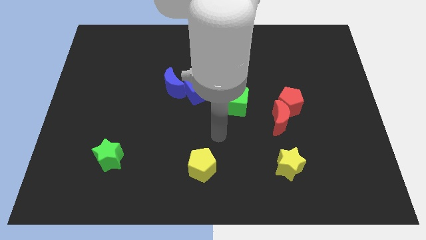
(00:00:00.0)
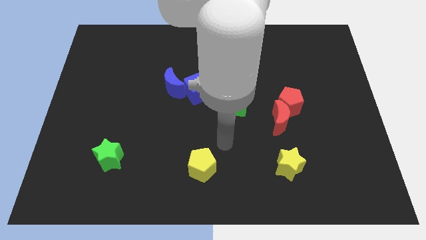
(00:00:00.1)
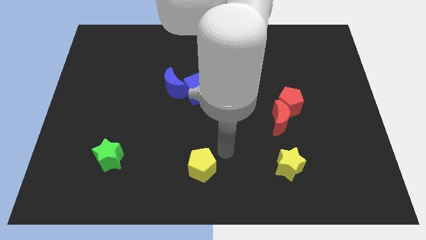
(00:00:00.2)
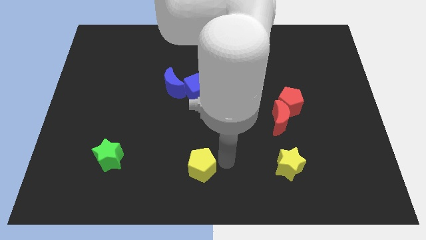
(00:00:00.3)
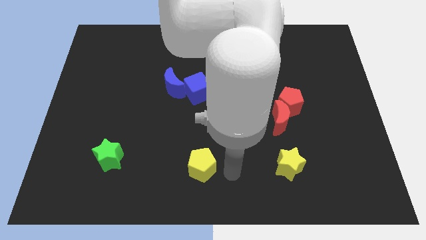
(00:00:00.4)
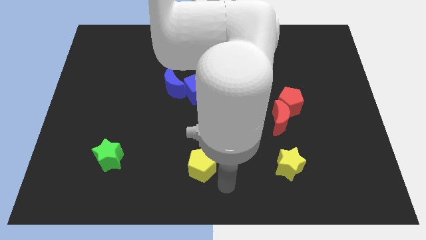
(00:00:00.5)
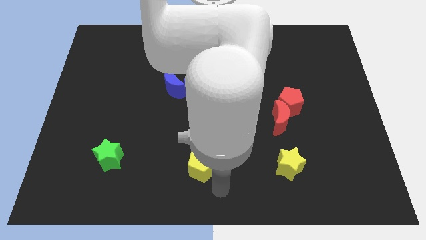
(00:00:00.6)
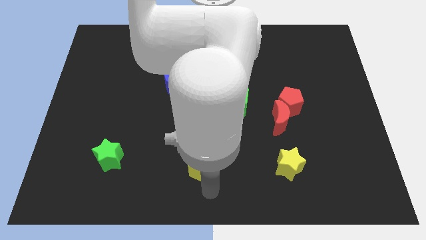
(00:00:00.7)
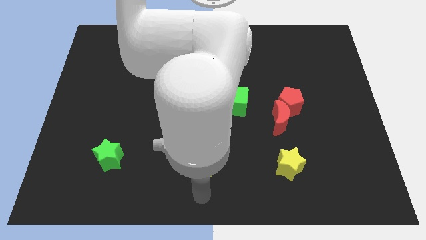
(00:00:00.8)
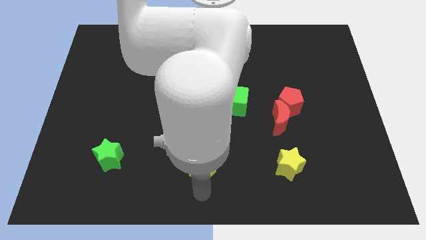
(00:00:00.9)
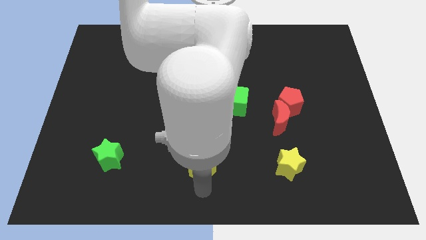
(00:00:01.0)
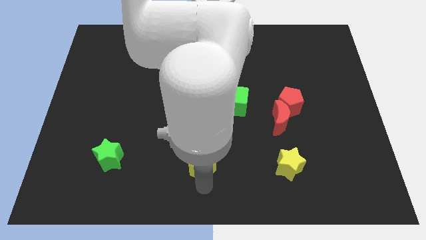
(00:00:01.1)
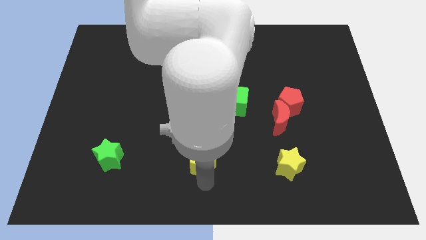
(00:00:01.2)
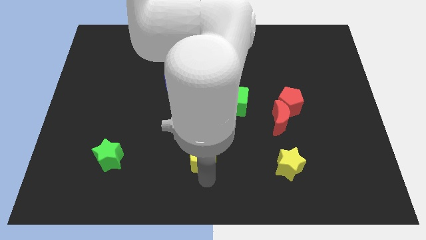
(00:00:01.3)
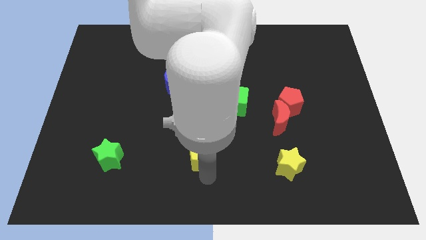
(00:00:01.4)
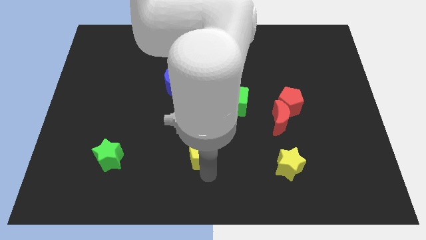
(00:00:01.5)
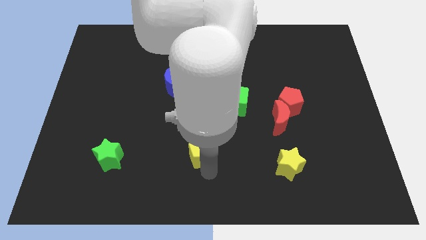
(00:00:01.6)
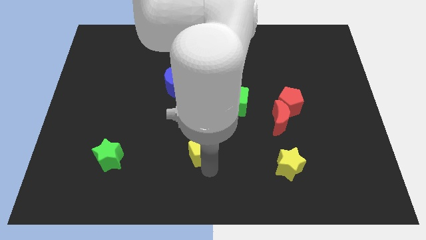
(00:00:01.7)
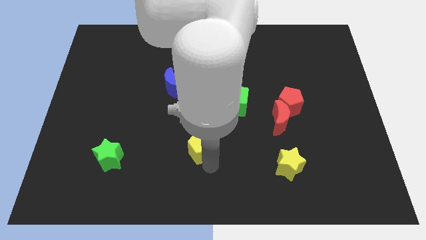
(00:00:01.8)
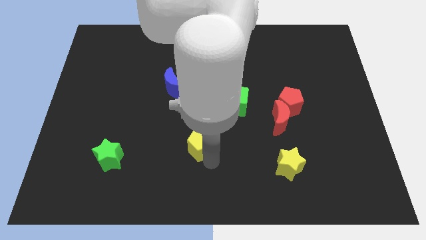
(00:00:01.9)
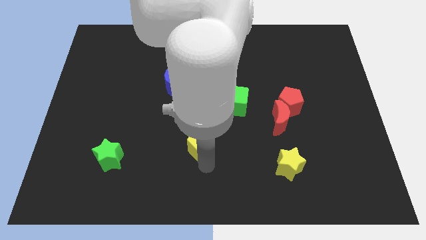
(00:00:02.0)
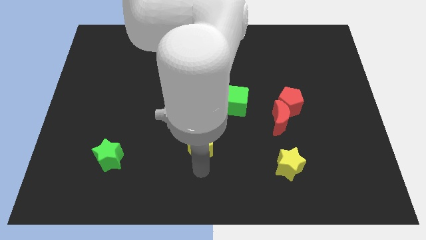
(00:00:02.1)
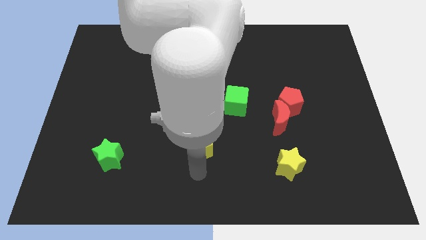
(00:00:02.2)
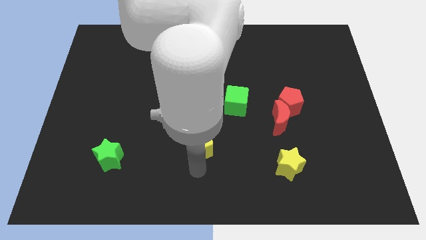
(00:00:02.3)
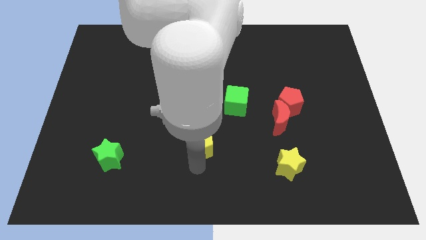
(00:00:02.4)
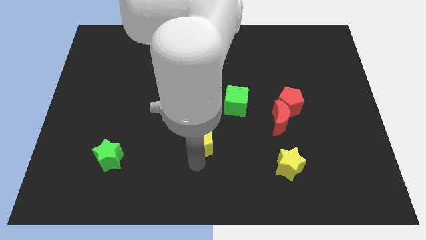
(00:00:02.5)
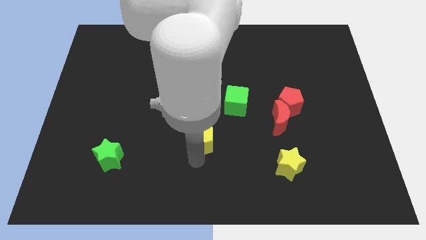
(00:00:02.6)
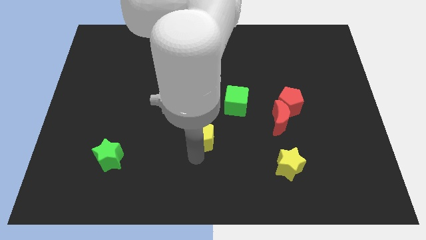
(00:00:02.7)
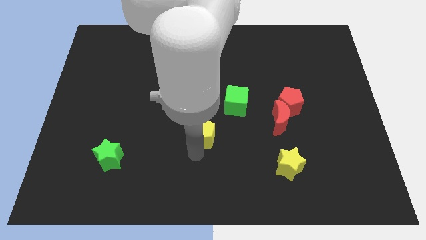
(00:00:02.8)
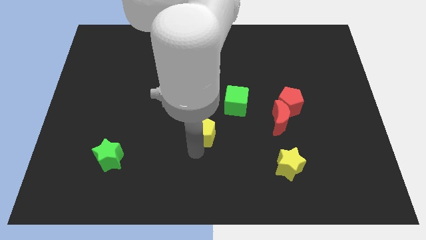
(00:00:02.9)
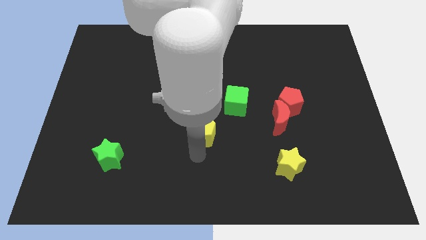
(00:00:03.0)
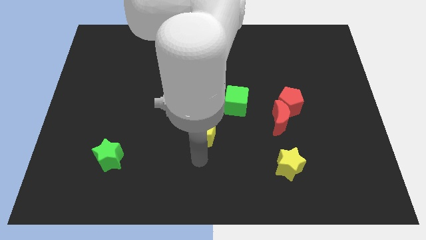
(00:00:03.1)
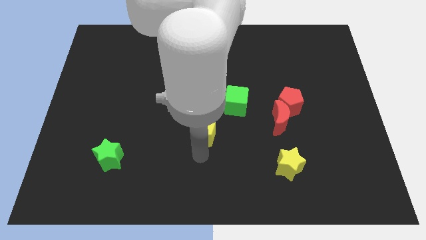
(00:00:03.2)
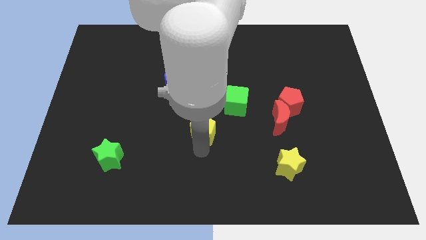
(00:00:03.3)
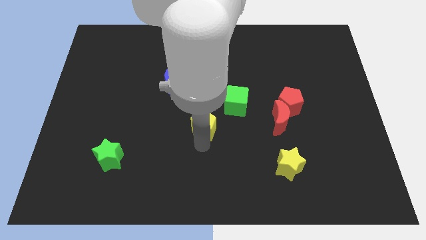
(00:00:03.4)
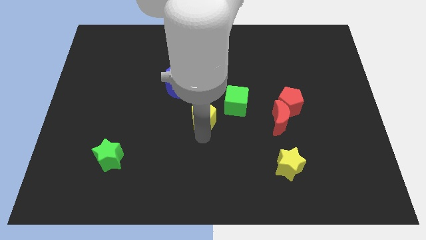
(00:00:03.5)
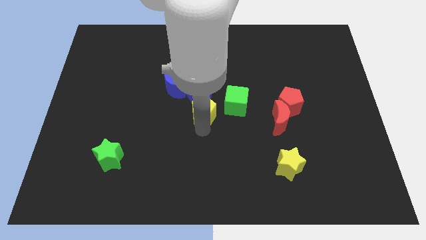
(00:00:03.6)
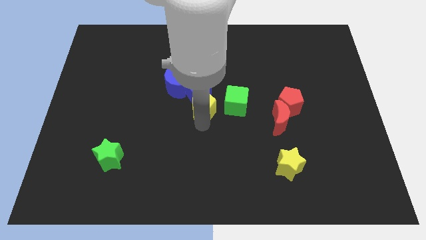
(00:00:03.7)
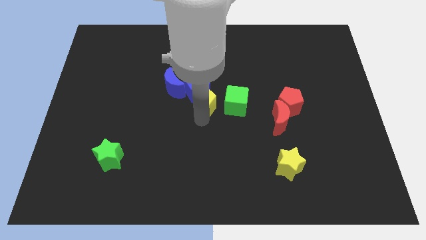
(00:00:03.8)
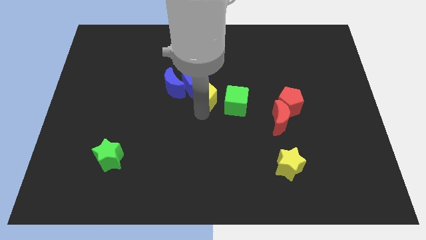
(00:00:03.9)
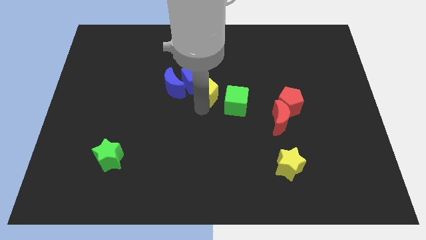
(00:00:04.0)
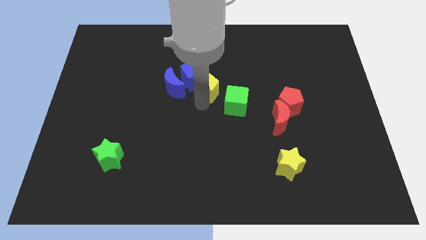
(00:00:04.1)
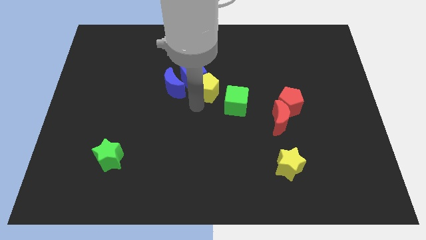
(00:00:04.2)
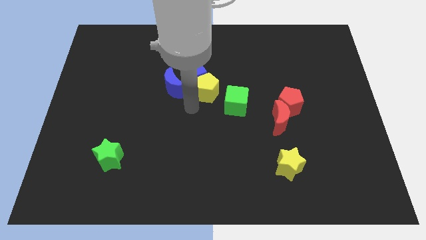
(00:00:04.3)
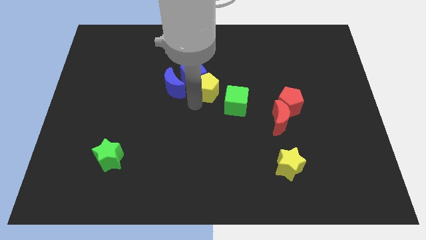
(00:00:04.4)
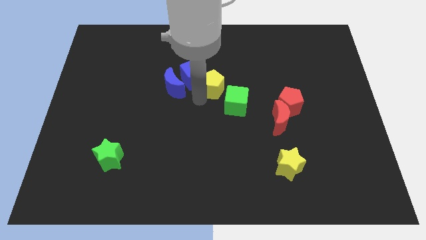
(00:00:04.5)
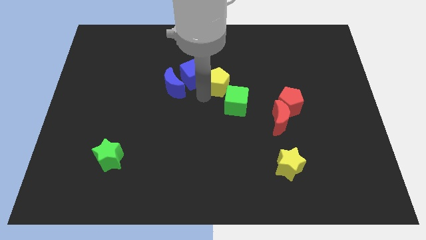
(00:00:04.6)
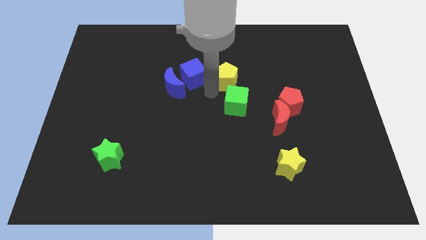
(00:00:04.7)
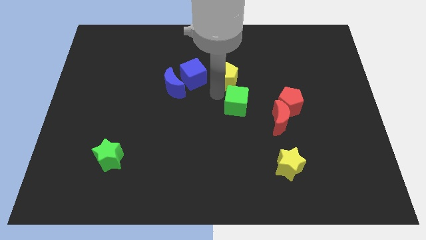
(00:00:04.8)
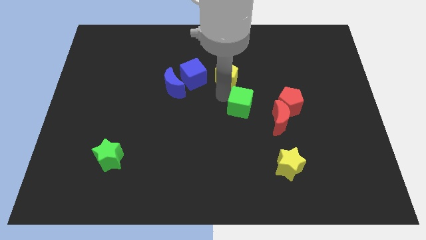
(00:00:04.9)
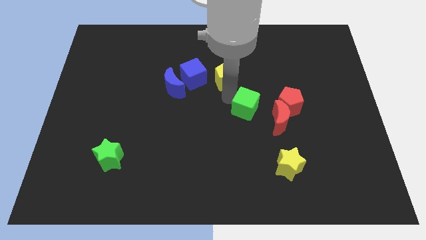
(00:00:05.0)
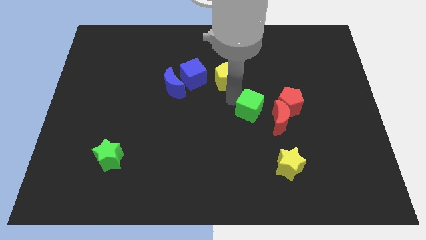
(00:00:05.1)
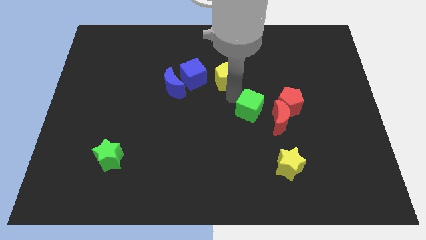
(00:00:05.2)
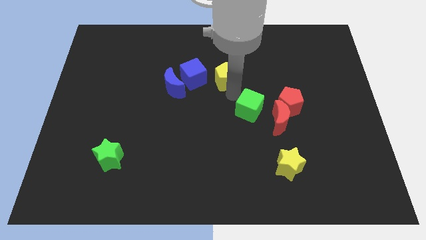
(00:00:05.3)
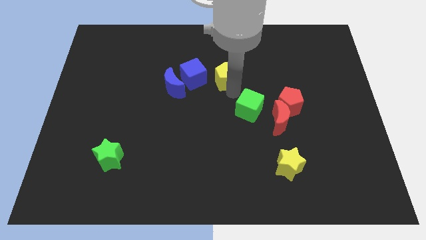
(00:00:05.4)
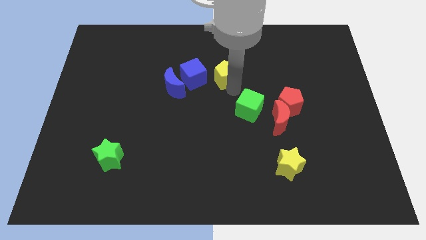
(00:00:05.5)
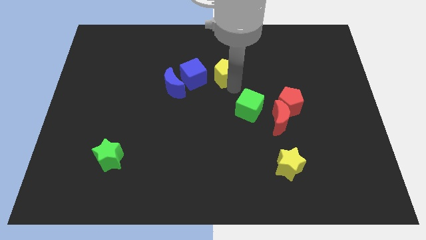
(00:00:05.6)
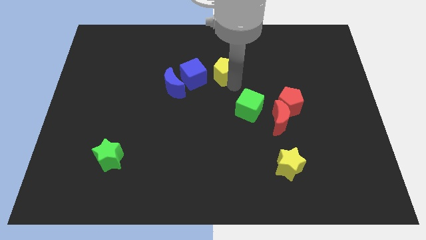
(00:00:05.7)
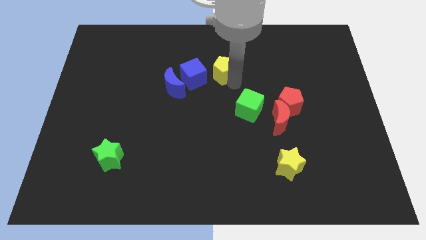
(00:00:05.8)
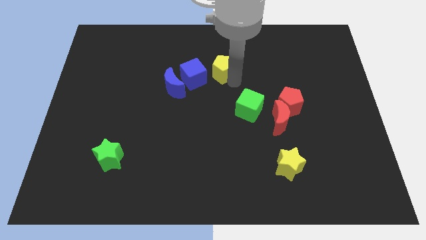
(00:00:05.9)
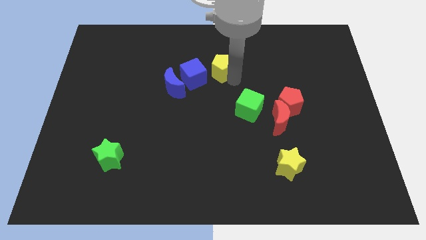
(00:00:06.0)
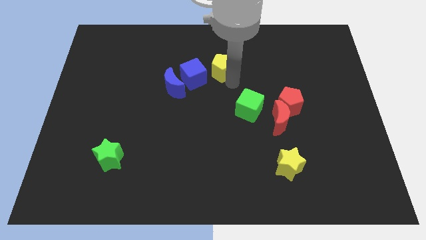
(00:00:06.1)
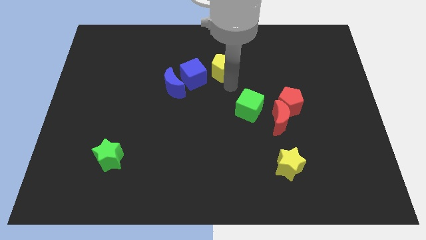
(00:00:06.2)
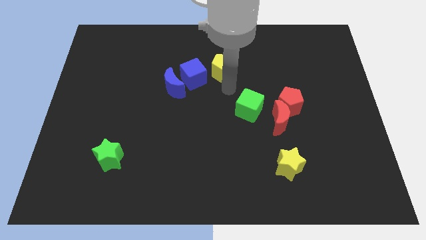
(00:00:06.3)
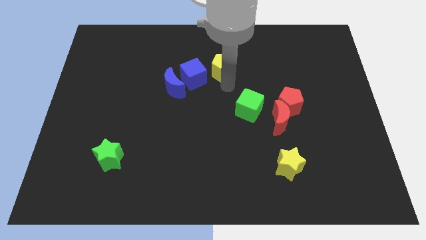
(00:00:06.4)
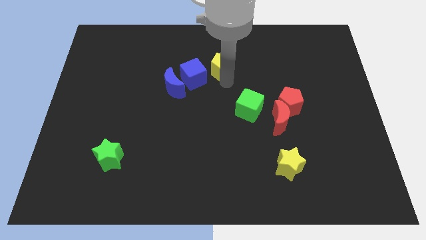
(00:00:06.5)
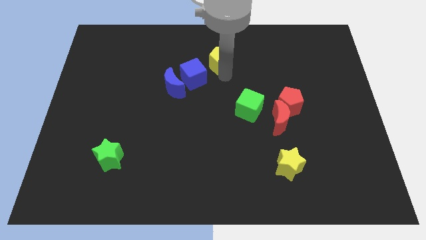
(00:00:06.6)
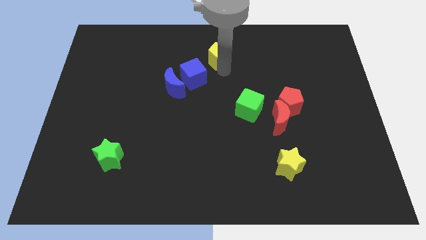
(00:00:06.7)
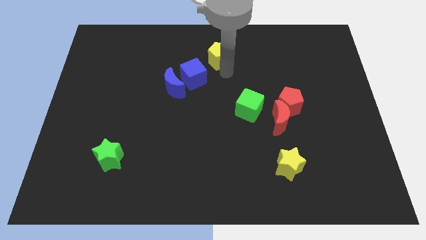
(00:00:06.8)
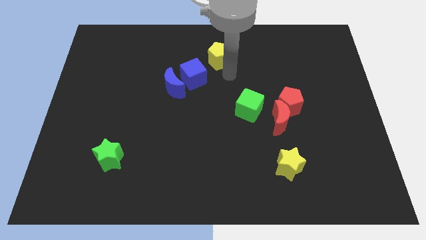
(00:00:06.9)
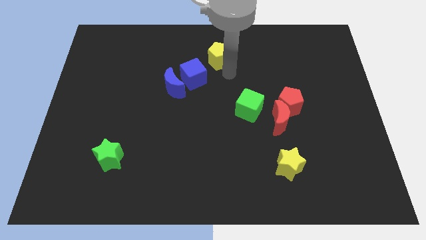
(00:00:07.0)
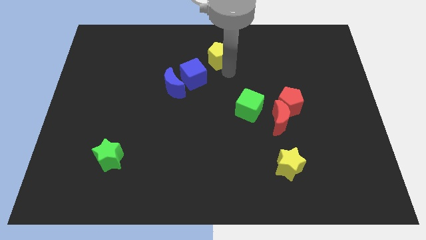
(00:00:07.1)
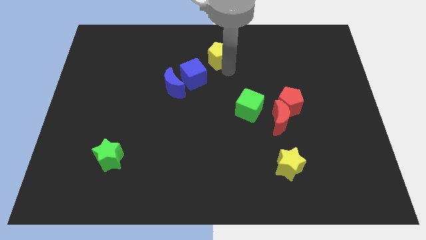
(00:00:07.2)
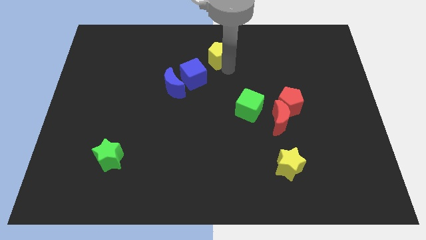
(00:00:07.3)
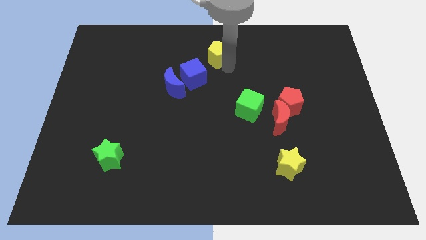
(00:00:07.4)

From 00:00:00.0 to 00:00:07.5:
put the yellow pentagon to the top
